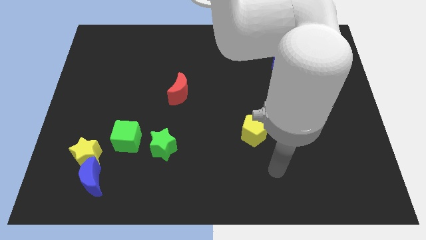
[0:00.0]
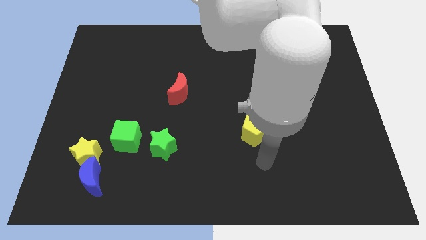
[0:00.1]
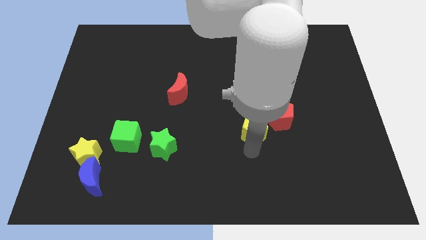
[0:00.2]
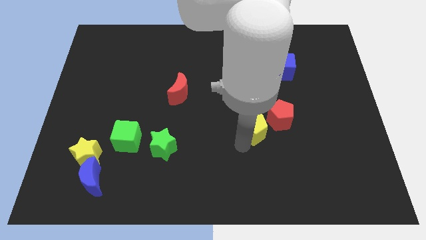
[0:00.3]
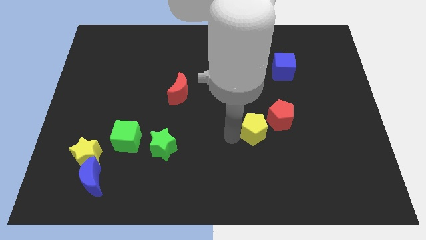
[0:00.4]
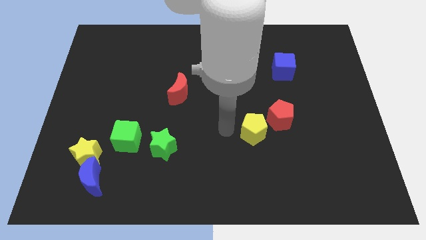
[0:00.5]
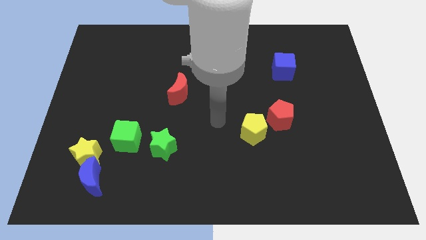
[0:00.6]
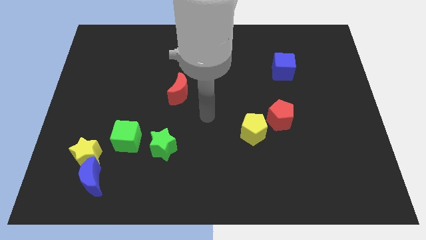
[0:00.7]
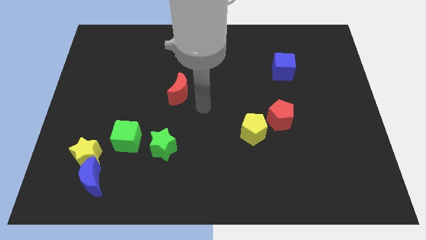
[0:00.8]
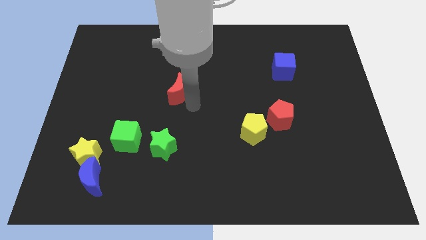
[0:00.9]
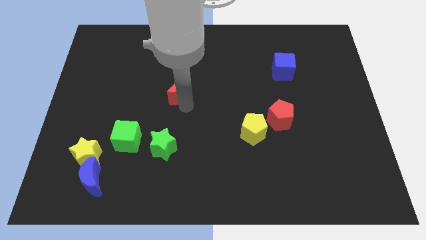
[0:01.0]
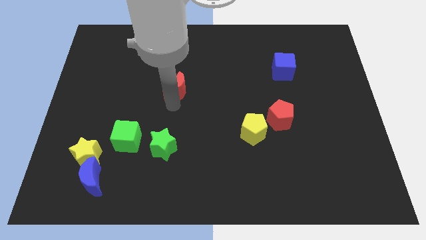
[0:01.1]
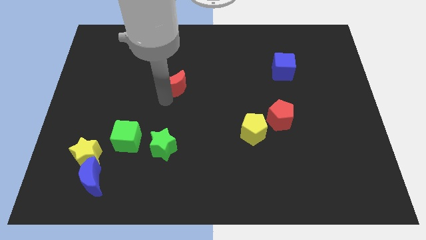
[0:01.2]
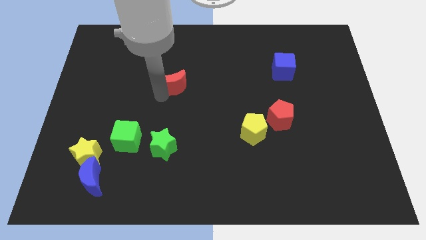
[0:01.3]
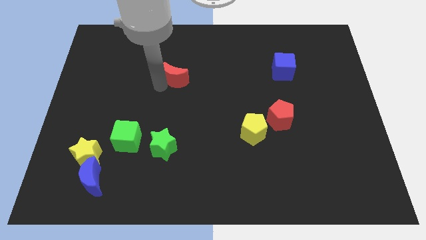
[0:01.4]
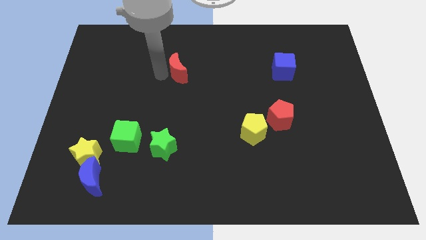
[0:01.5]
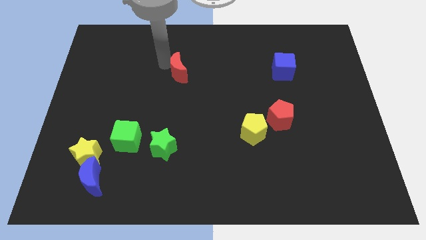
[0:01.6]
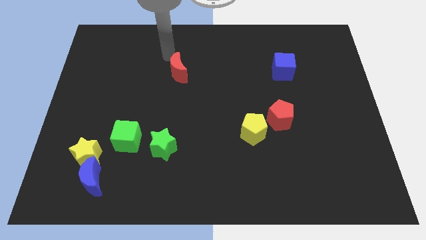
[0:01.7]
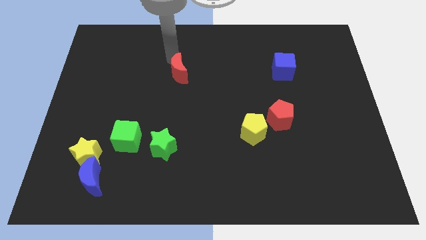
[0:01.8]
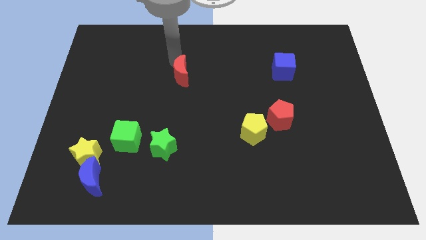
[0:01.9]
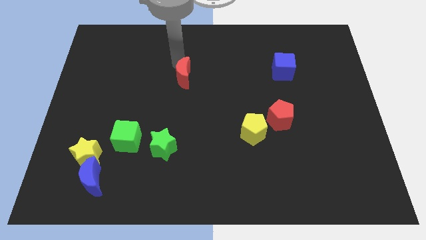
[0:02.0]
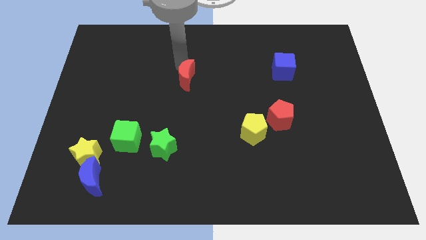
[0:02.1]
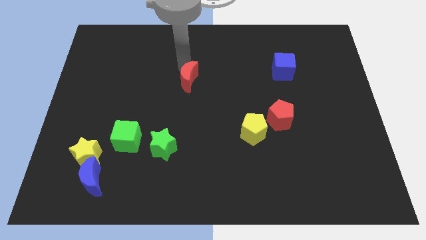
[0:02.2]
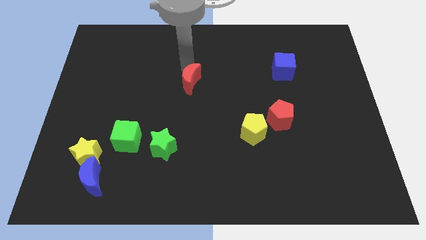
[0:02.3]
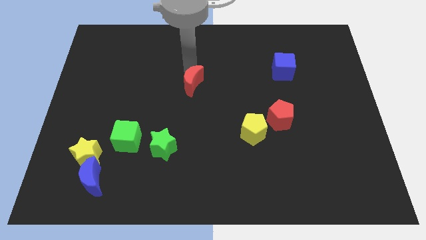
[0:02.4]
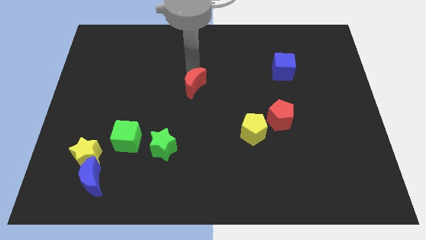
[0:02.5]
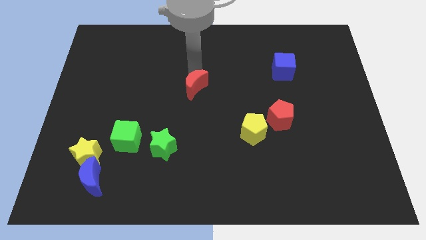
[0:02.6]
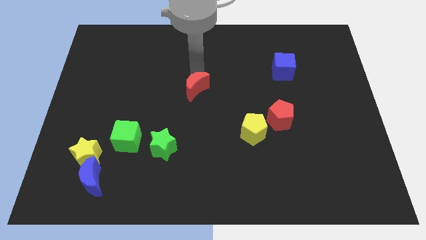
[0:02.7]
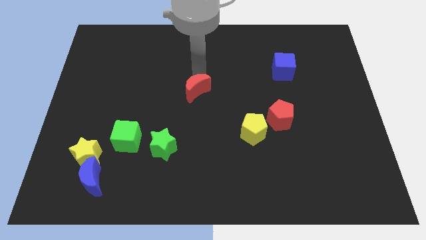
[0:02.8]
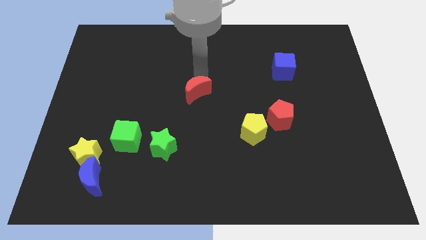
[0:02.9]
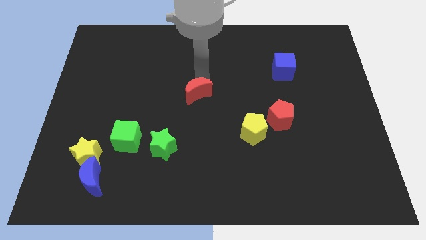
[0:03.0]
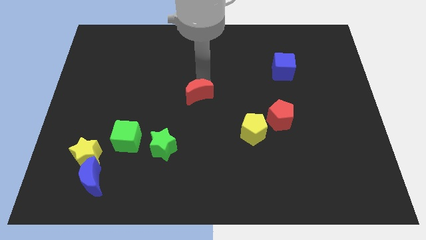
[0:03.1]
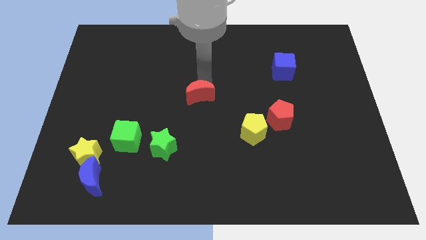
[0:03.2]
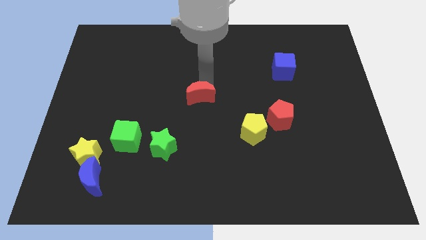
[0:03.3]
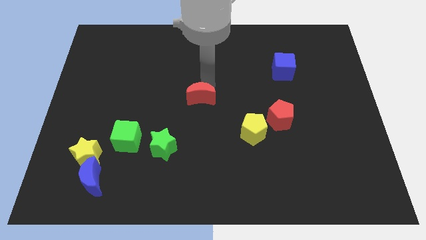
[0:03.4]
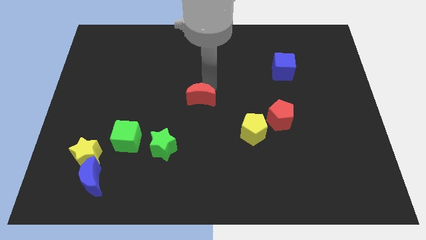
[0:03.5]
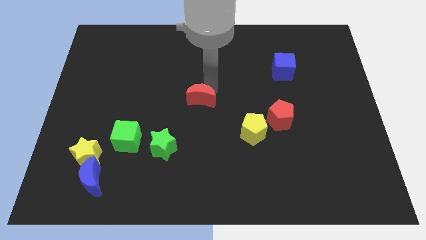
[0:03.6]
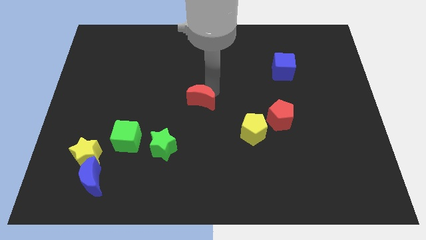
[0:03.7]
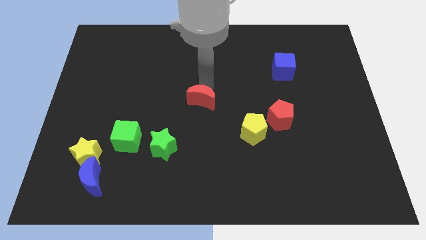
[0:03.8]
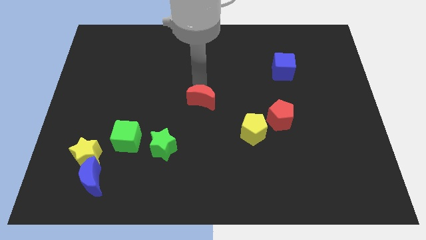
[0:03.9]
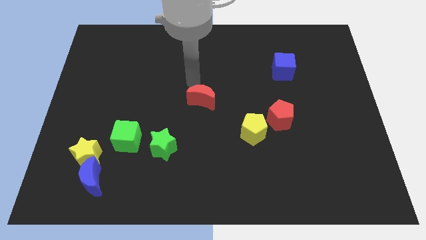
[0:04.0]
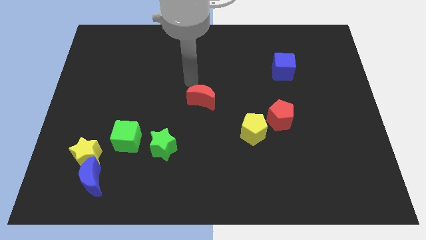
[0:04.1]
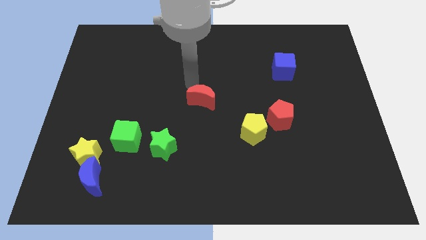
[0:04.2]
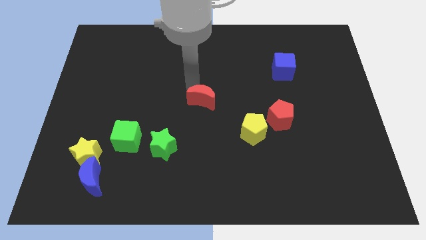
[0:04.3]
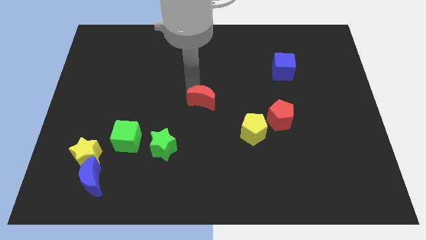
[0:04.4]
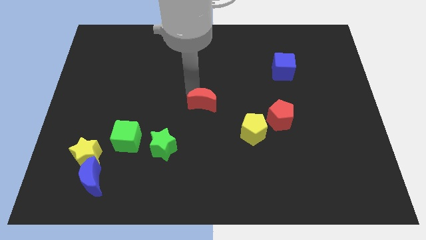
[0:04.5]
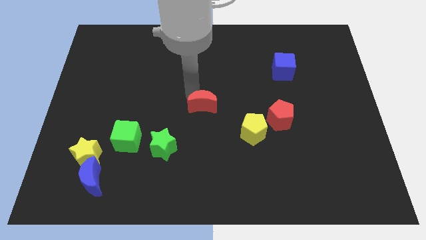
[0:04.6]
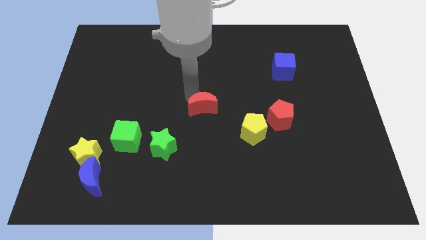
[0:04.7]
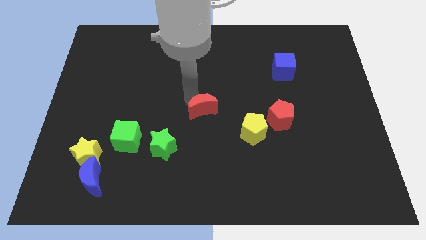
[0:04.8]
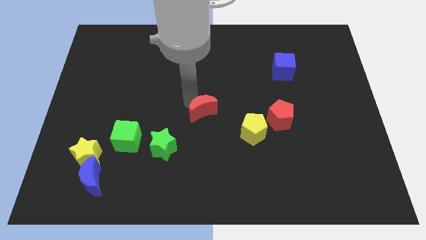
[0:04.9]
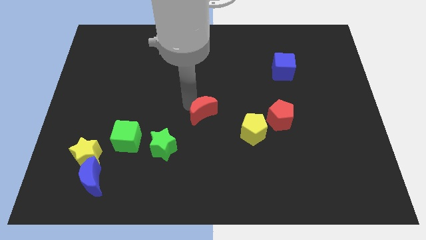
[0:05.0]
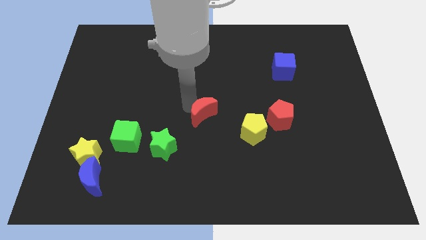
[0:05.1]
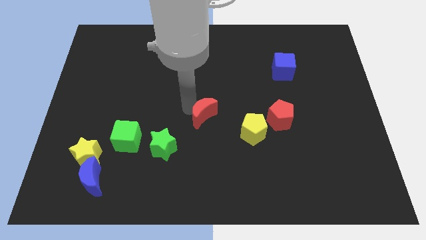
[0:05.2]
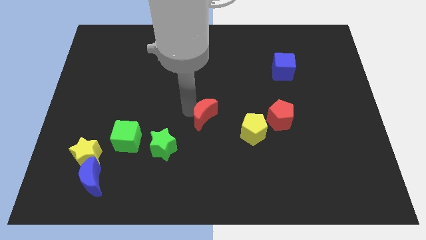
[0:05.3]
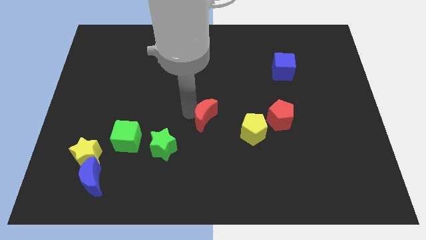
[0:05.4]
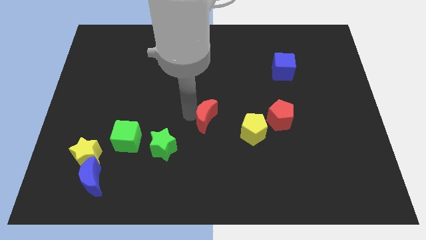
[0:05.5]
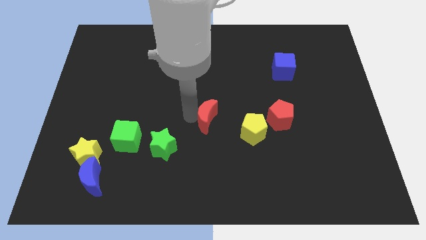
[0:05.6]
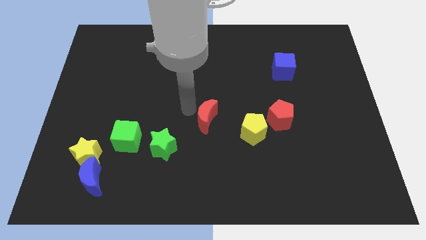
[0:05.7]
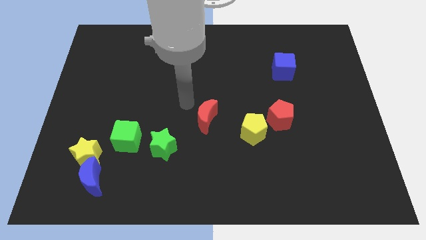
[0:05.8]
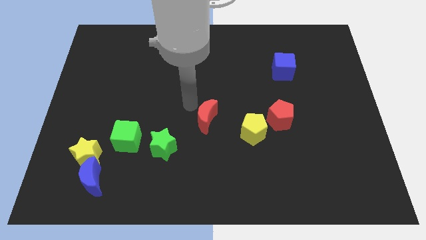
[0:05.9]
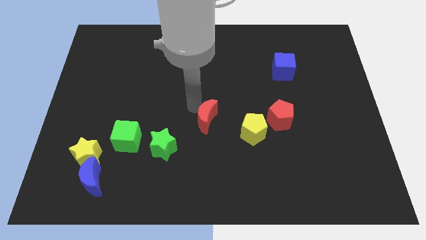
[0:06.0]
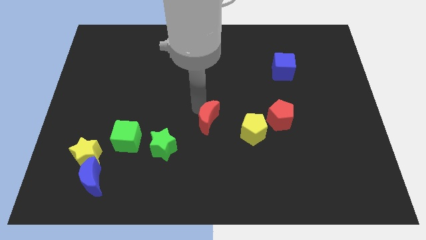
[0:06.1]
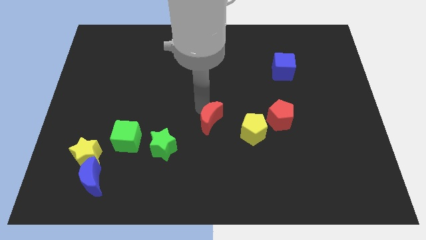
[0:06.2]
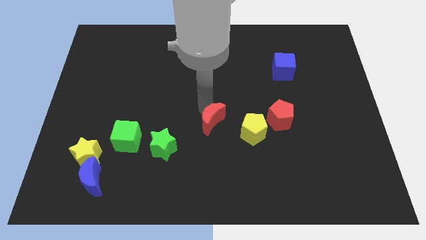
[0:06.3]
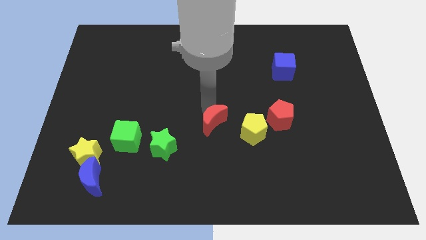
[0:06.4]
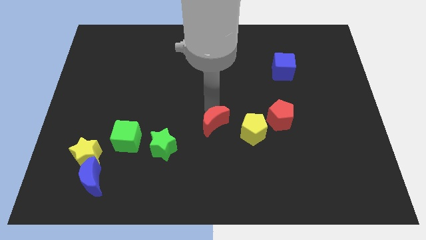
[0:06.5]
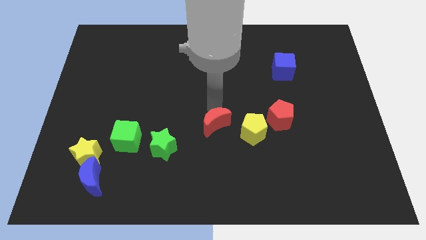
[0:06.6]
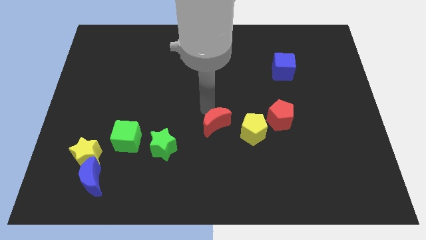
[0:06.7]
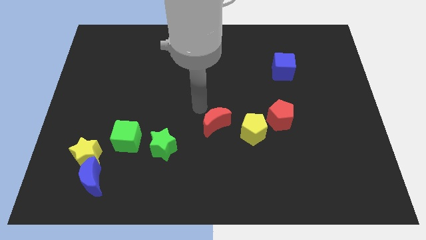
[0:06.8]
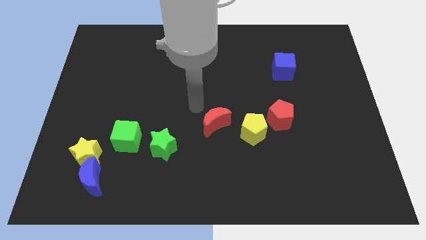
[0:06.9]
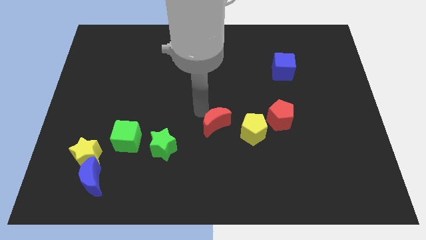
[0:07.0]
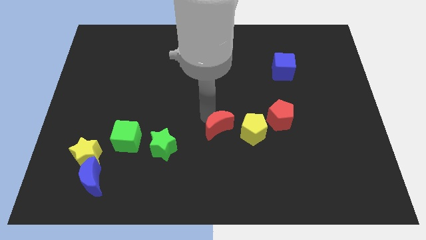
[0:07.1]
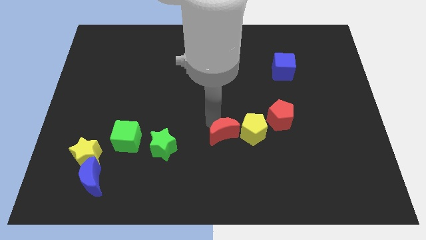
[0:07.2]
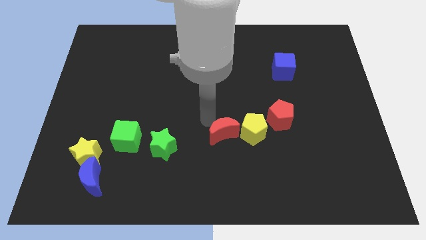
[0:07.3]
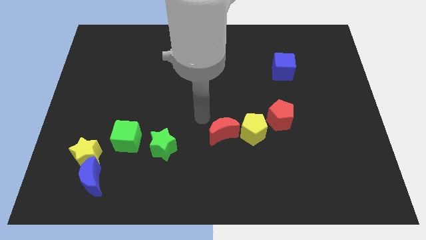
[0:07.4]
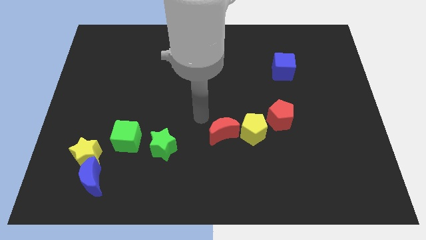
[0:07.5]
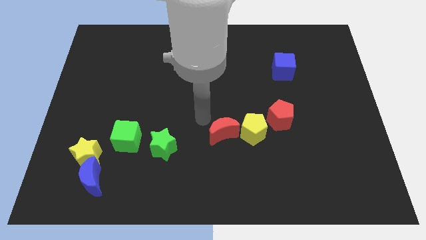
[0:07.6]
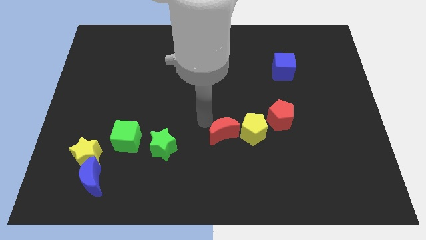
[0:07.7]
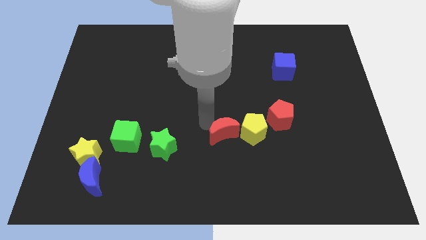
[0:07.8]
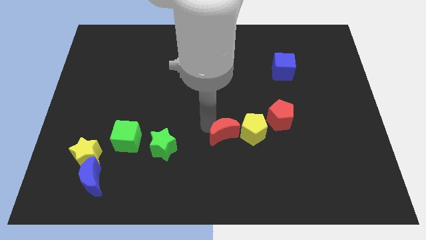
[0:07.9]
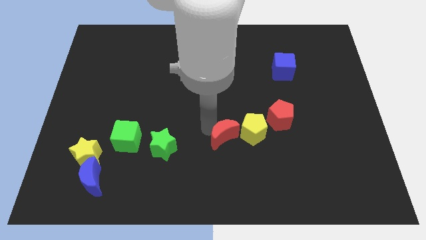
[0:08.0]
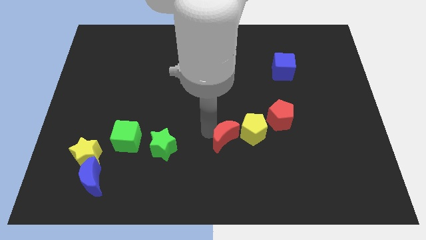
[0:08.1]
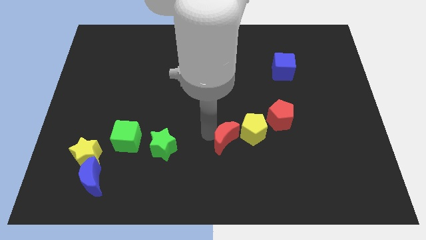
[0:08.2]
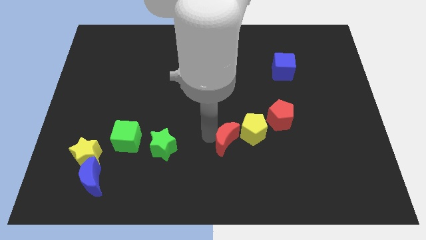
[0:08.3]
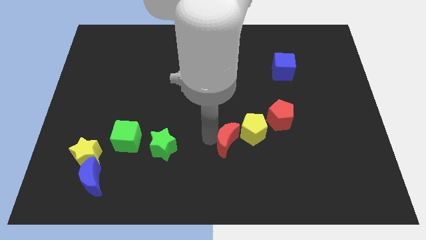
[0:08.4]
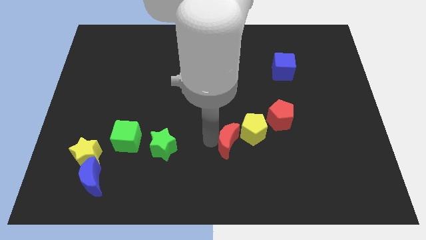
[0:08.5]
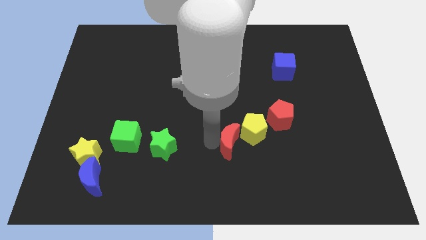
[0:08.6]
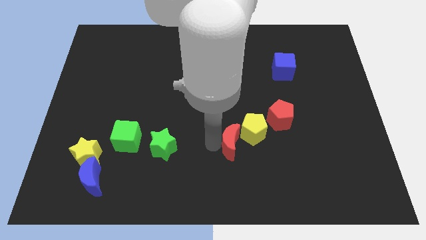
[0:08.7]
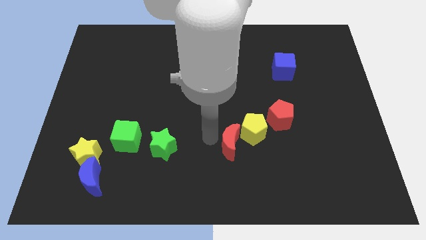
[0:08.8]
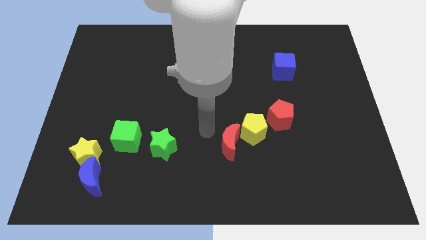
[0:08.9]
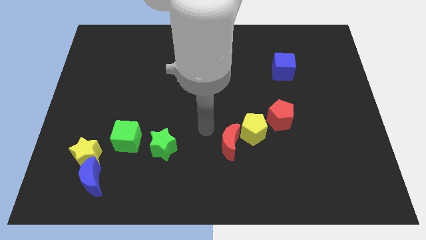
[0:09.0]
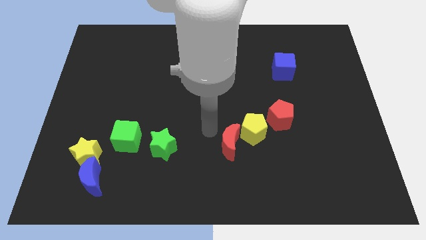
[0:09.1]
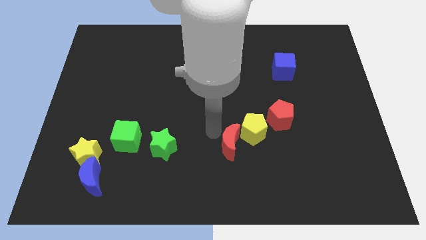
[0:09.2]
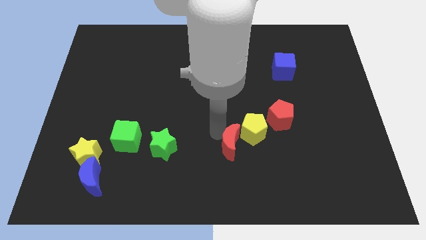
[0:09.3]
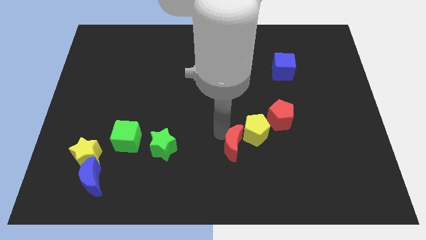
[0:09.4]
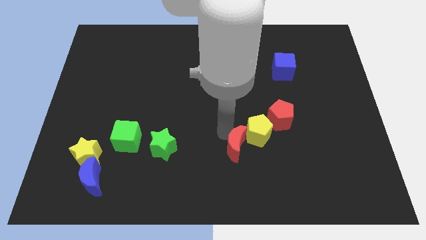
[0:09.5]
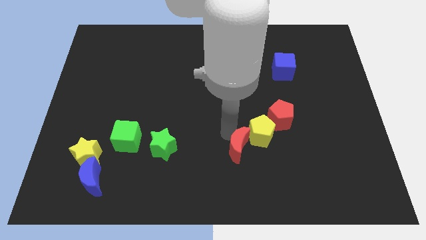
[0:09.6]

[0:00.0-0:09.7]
slide the red moon down and then right
